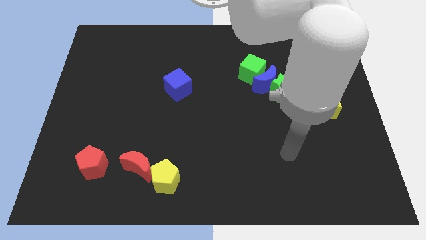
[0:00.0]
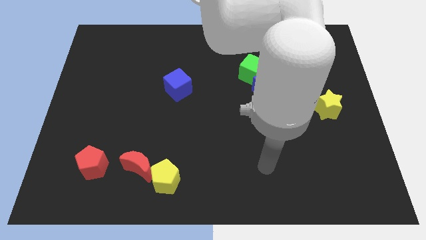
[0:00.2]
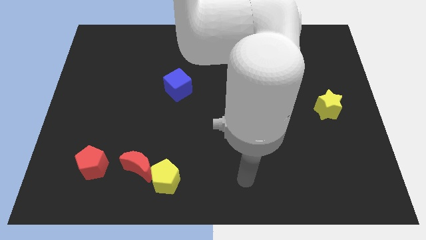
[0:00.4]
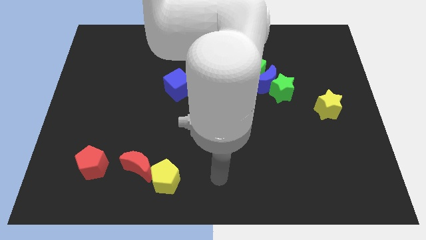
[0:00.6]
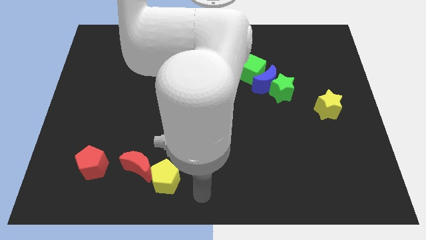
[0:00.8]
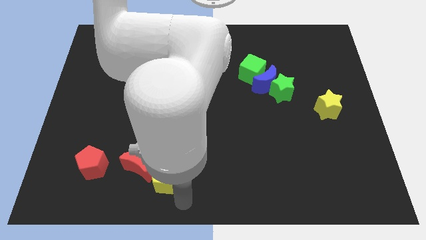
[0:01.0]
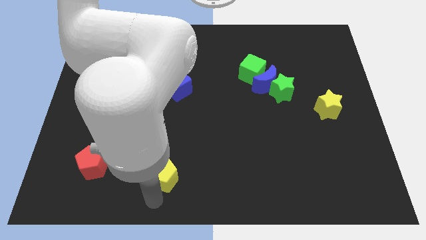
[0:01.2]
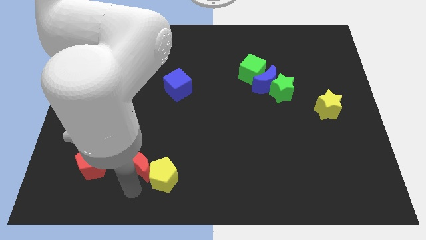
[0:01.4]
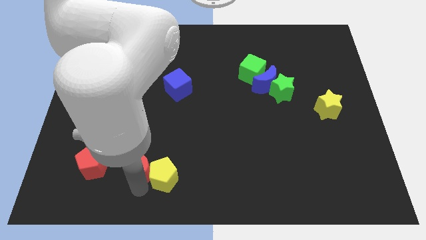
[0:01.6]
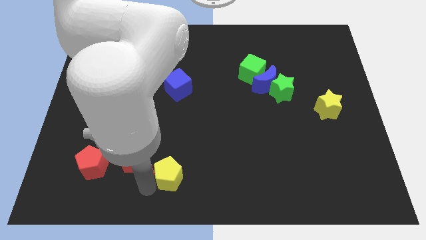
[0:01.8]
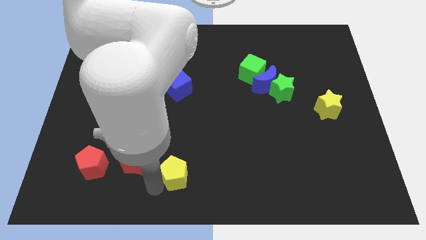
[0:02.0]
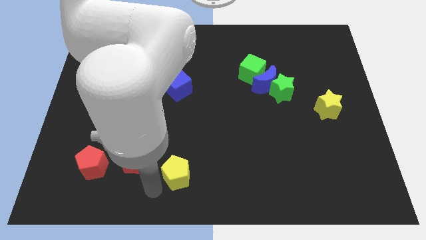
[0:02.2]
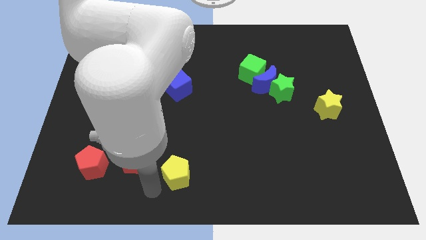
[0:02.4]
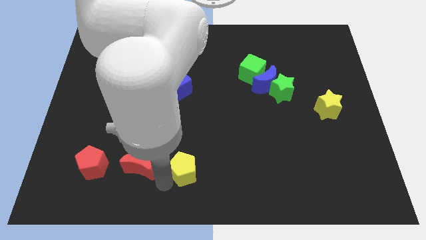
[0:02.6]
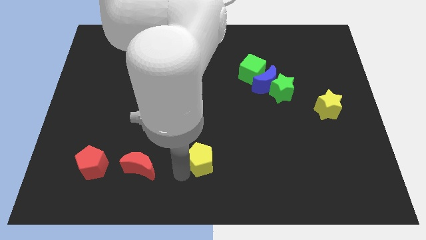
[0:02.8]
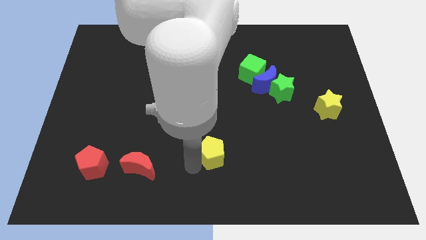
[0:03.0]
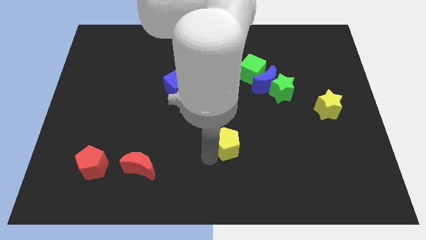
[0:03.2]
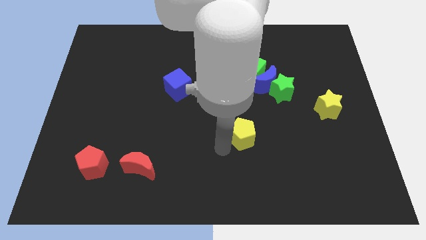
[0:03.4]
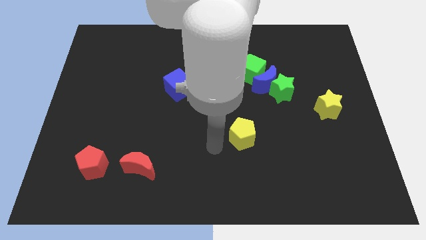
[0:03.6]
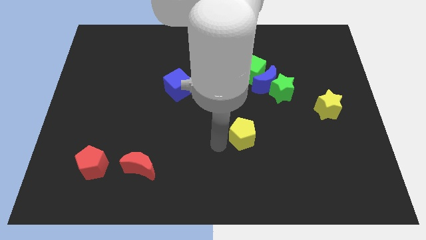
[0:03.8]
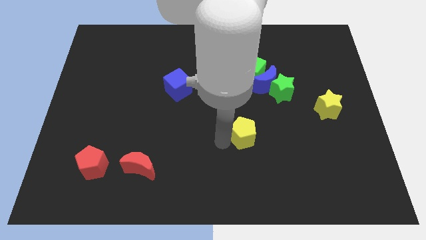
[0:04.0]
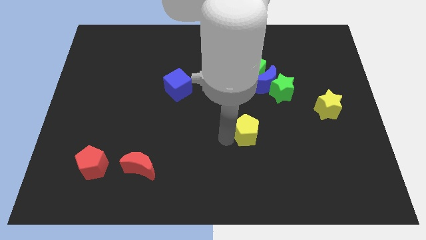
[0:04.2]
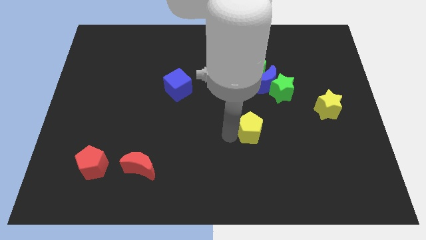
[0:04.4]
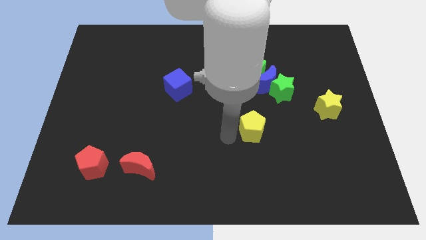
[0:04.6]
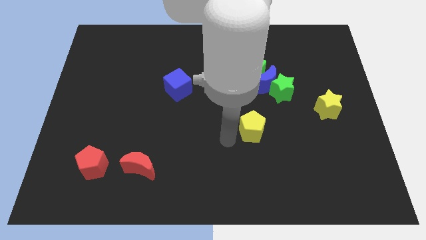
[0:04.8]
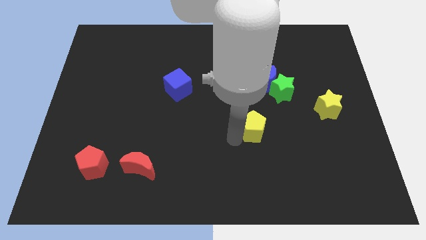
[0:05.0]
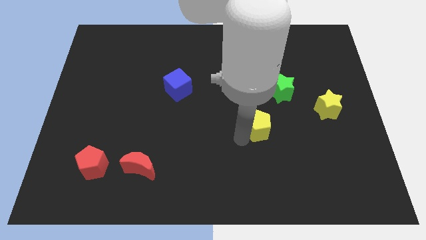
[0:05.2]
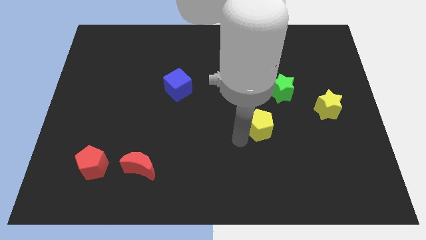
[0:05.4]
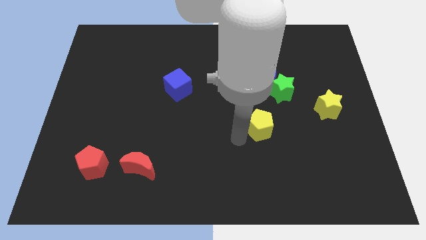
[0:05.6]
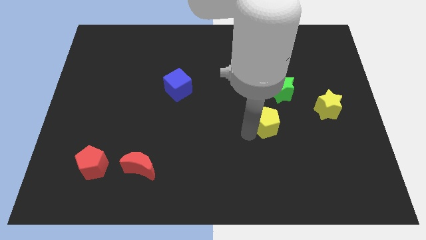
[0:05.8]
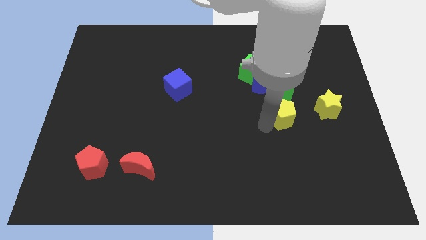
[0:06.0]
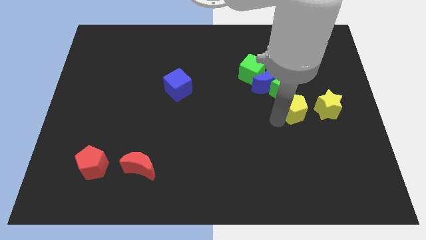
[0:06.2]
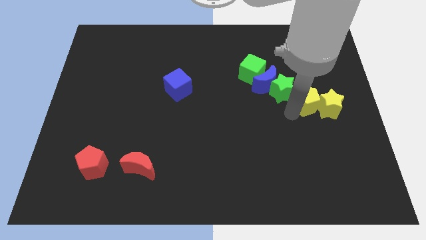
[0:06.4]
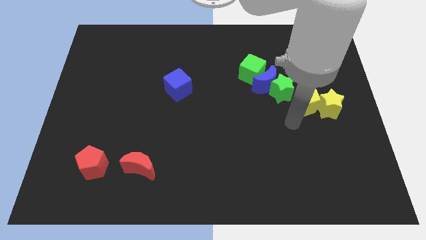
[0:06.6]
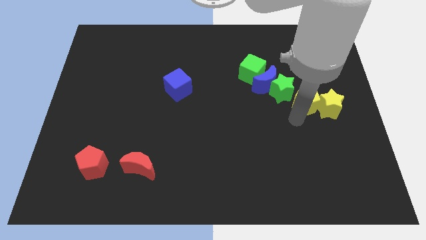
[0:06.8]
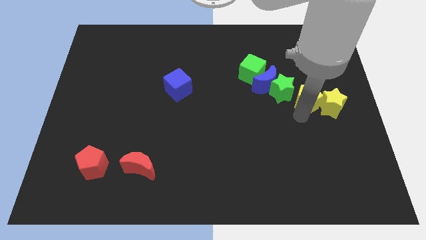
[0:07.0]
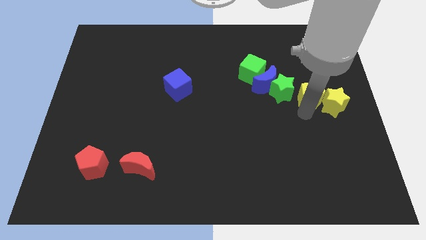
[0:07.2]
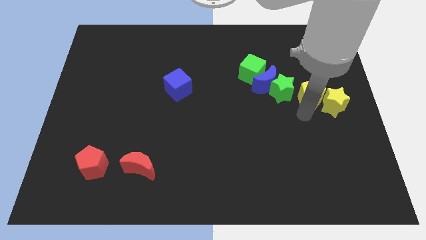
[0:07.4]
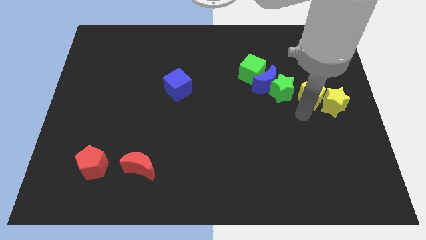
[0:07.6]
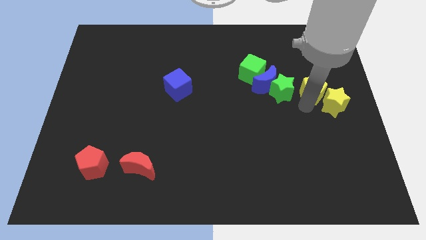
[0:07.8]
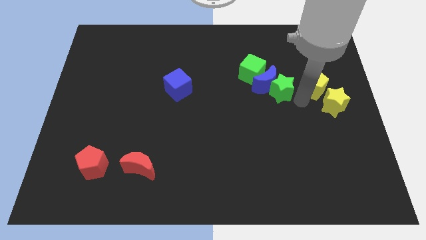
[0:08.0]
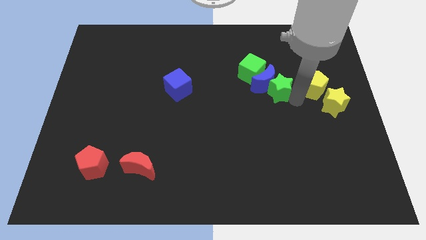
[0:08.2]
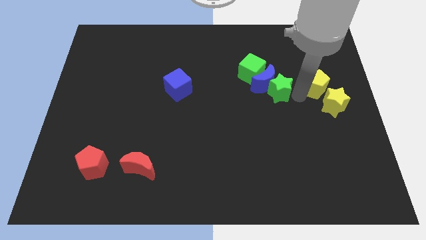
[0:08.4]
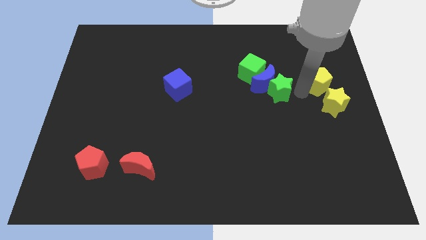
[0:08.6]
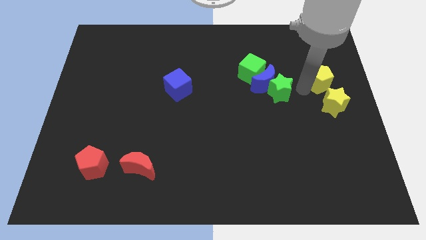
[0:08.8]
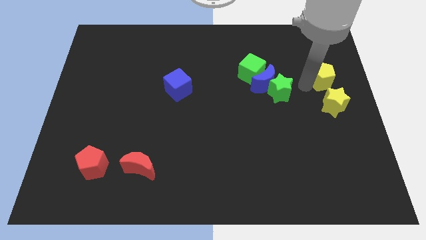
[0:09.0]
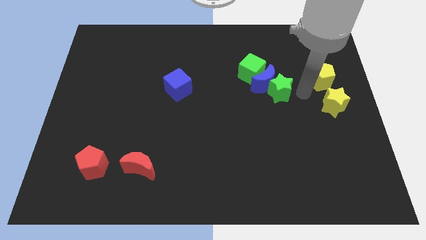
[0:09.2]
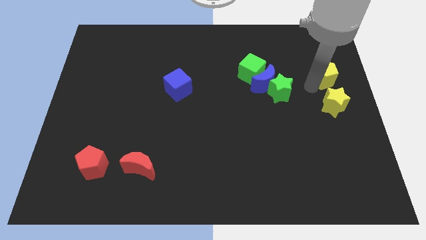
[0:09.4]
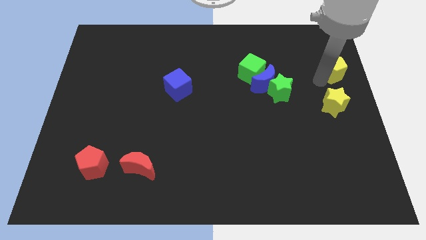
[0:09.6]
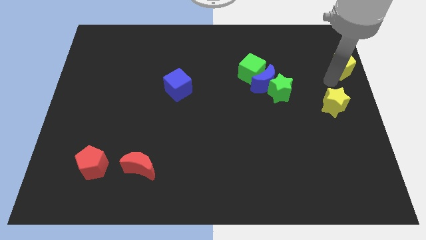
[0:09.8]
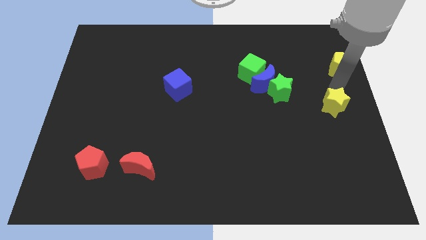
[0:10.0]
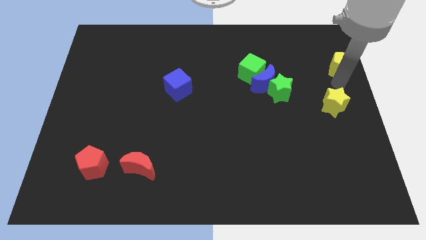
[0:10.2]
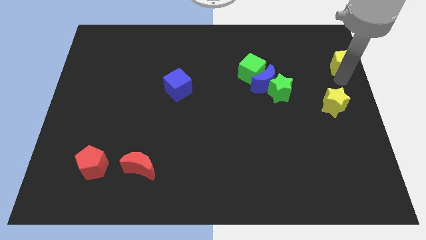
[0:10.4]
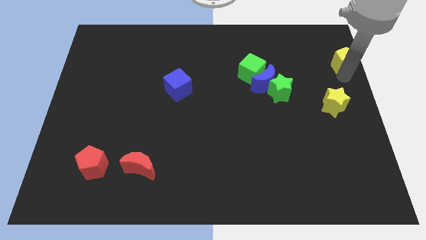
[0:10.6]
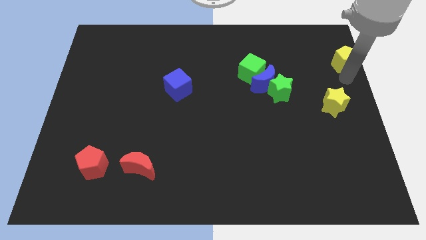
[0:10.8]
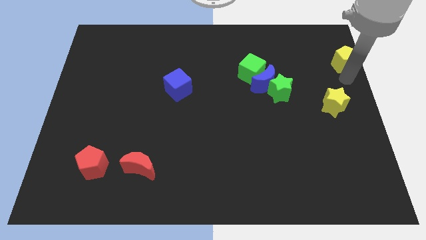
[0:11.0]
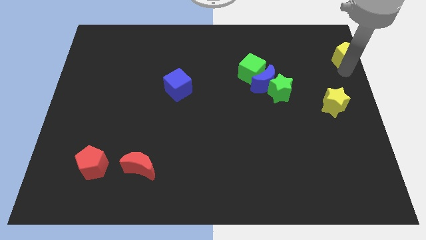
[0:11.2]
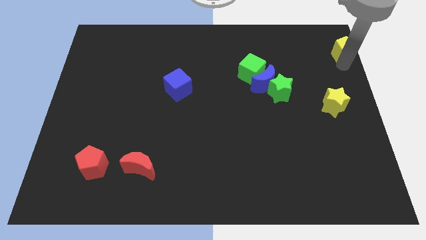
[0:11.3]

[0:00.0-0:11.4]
put the yellow pentagon to the top right corner

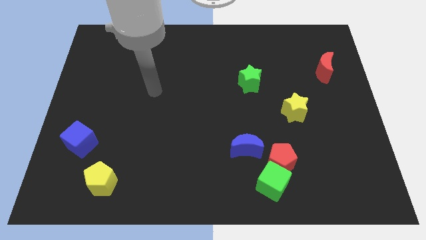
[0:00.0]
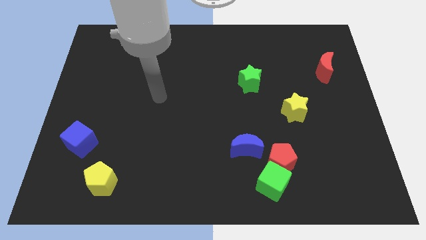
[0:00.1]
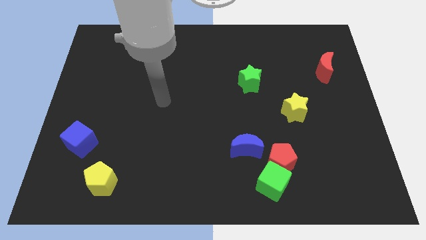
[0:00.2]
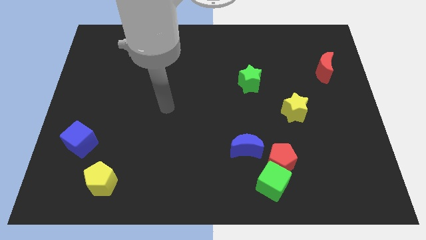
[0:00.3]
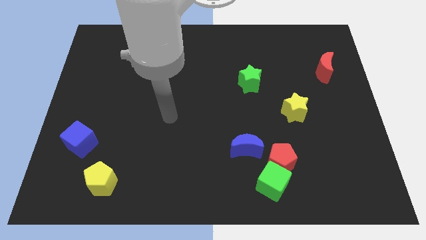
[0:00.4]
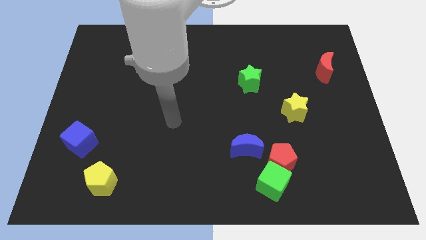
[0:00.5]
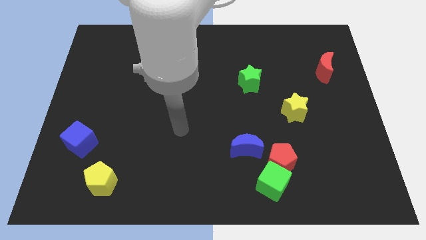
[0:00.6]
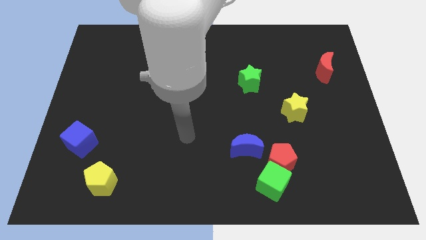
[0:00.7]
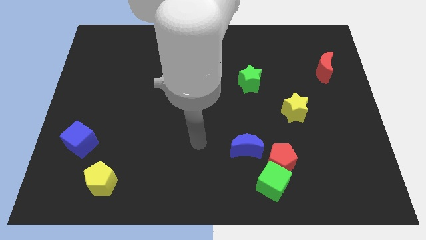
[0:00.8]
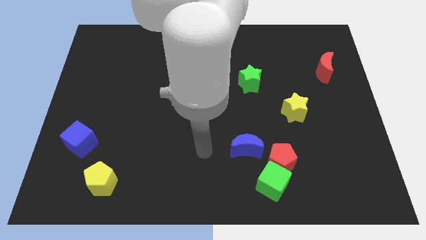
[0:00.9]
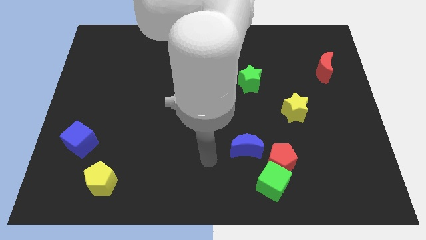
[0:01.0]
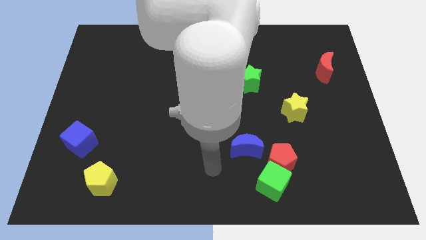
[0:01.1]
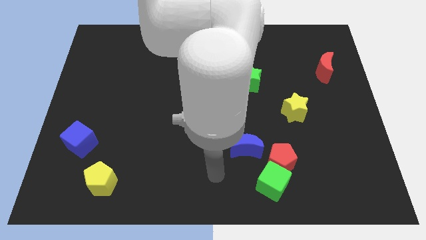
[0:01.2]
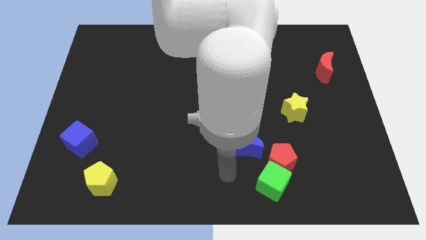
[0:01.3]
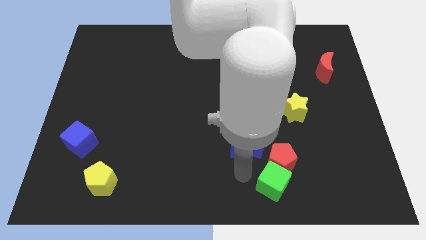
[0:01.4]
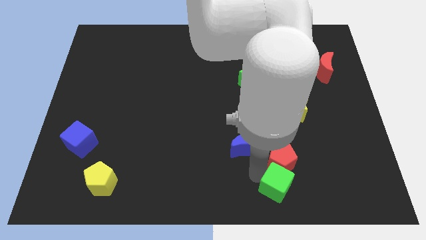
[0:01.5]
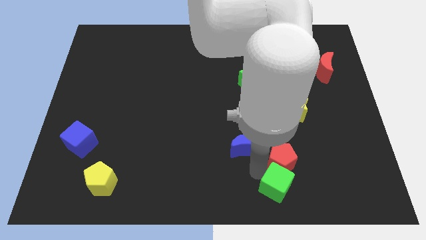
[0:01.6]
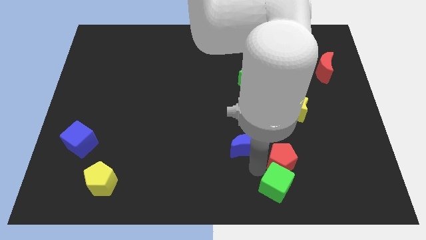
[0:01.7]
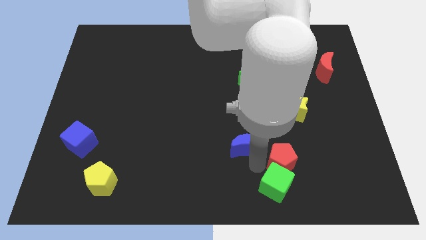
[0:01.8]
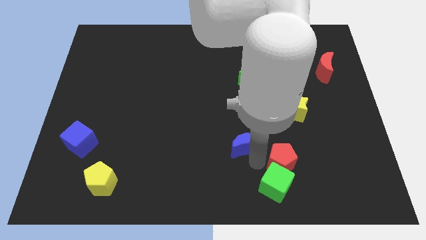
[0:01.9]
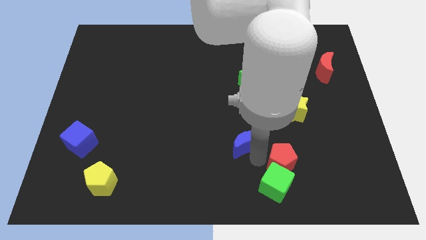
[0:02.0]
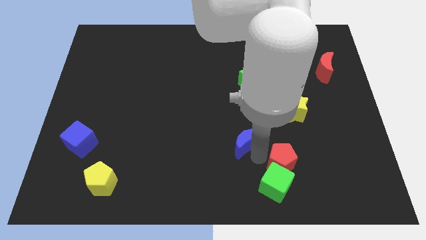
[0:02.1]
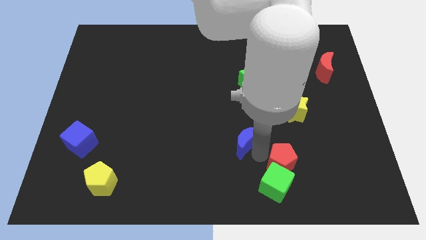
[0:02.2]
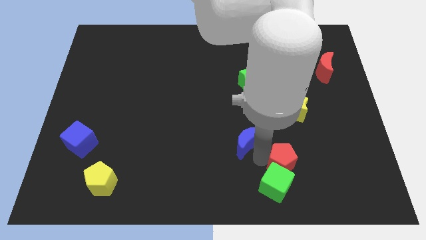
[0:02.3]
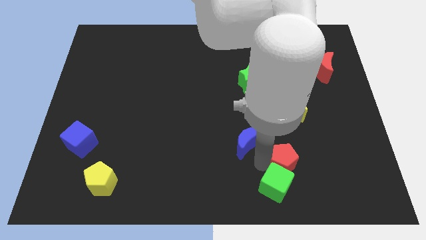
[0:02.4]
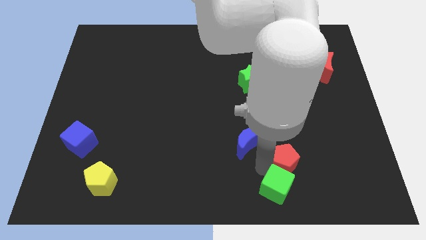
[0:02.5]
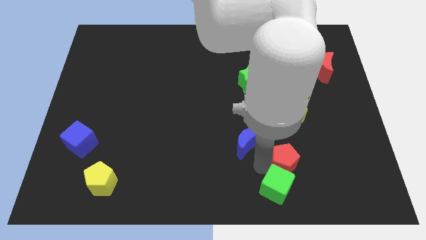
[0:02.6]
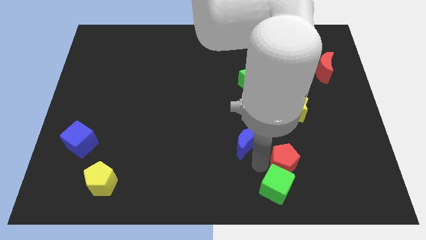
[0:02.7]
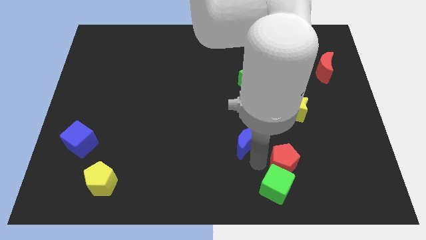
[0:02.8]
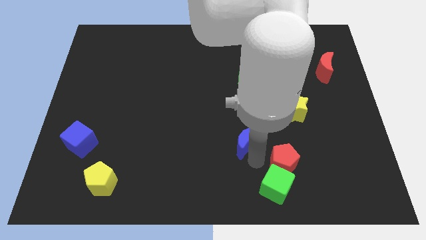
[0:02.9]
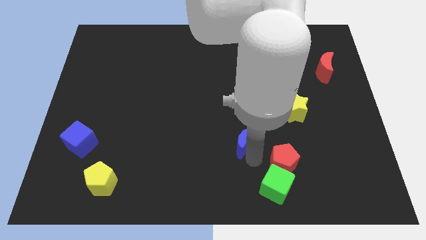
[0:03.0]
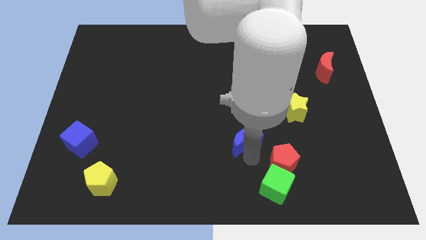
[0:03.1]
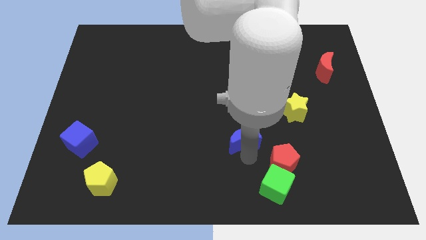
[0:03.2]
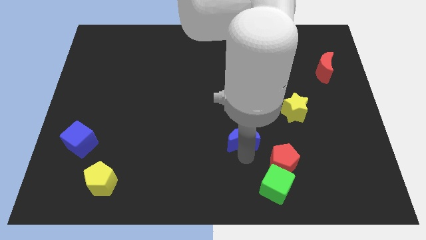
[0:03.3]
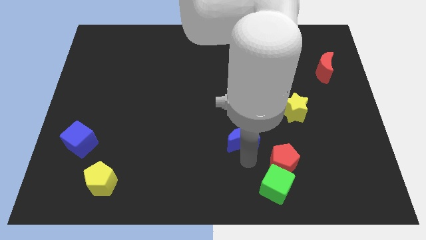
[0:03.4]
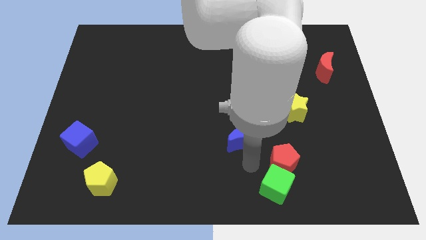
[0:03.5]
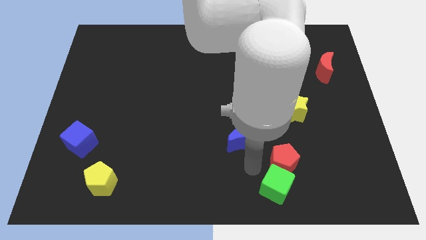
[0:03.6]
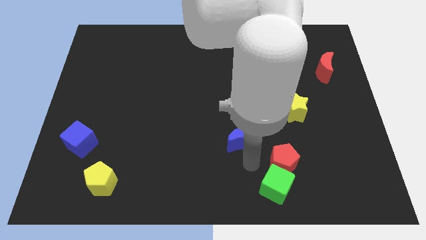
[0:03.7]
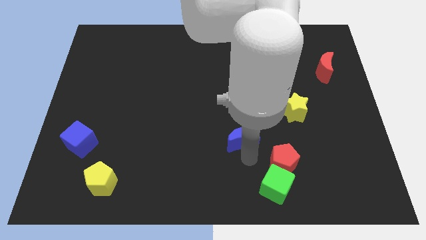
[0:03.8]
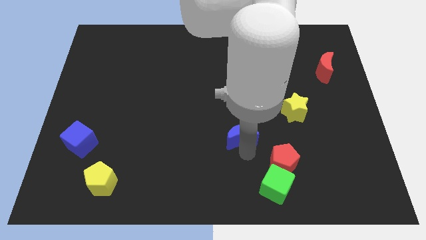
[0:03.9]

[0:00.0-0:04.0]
move the blue moon to the center
